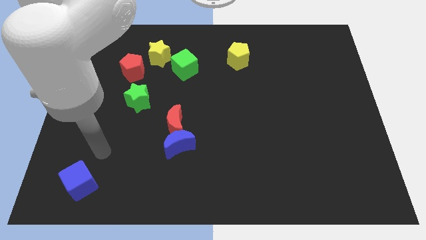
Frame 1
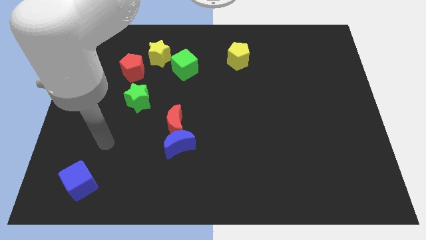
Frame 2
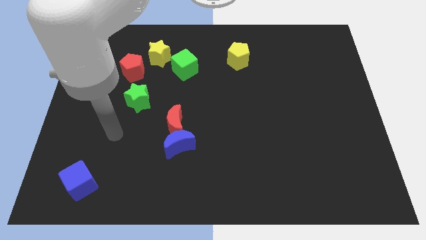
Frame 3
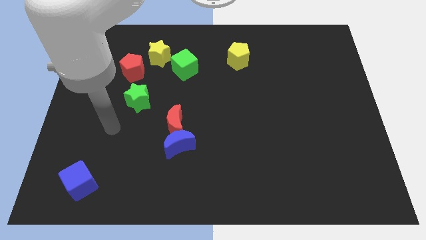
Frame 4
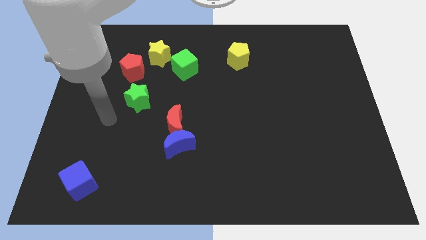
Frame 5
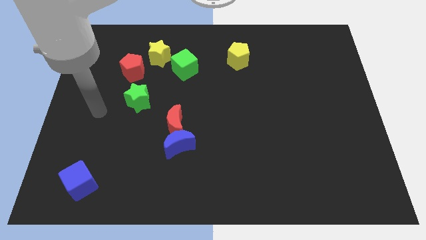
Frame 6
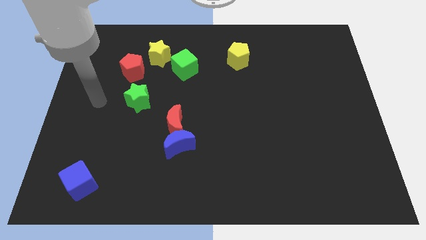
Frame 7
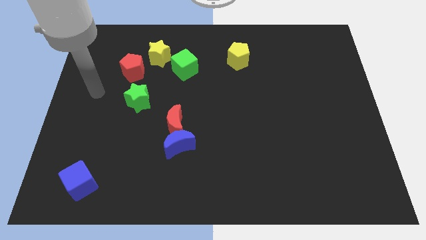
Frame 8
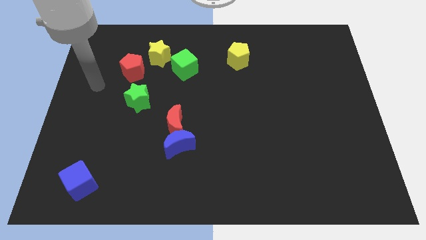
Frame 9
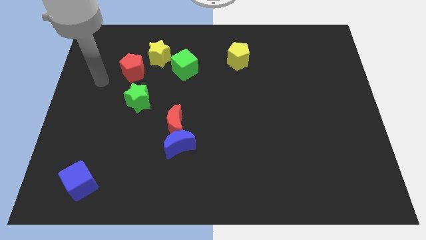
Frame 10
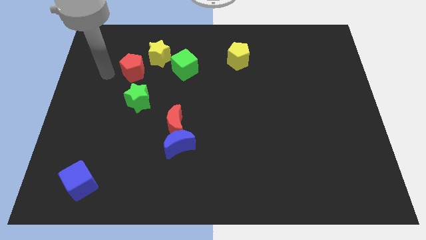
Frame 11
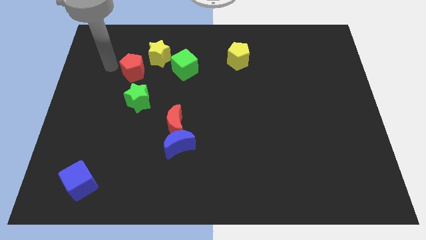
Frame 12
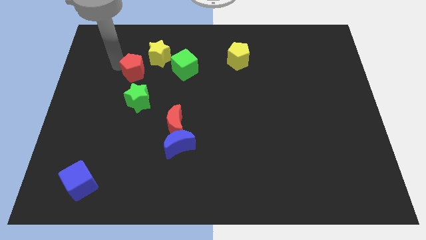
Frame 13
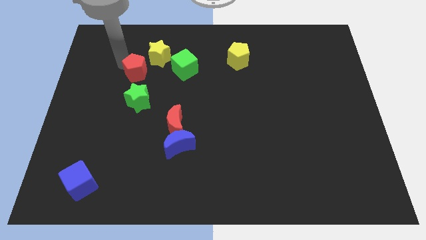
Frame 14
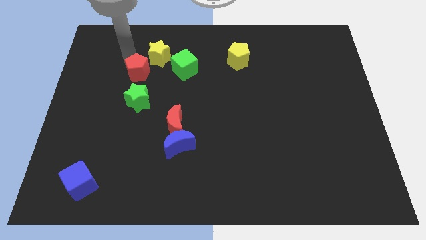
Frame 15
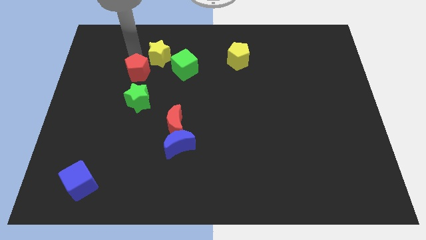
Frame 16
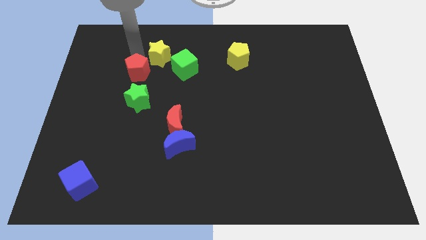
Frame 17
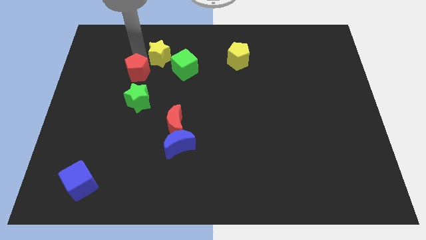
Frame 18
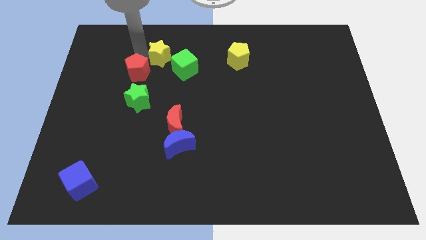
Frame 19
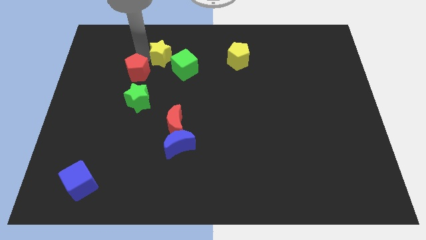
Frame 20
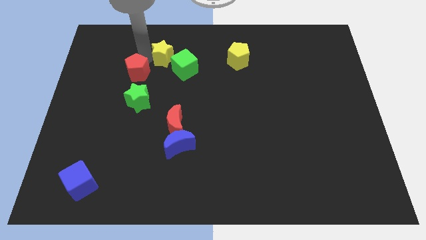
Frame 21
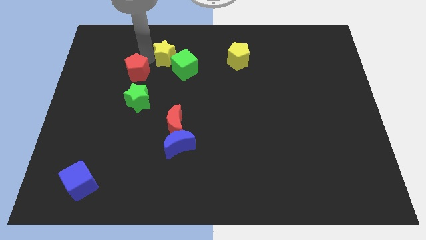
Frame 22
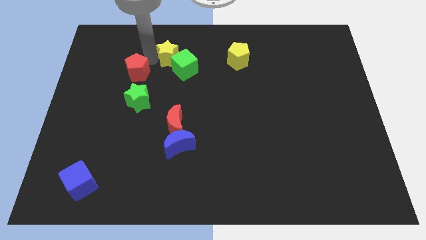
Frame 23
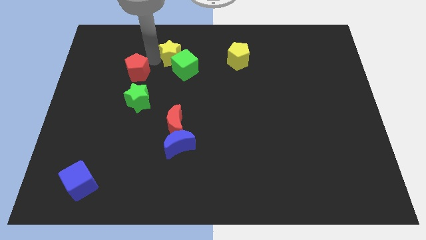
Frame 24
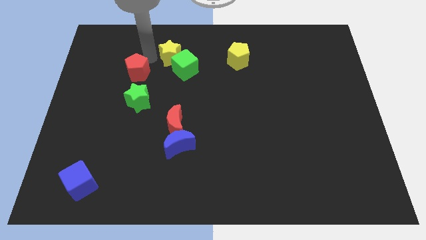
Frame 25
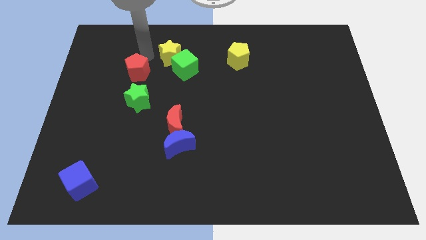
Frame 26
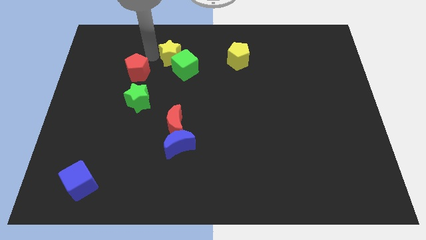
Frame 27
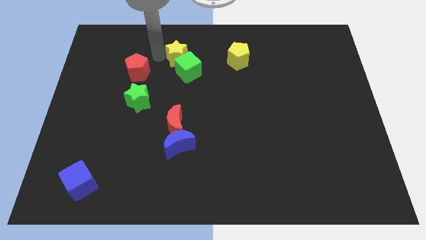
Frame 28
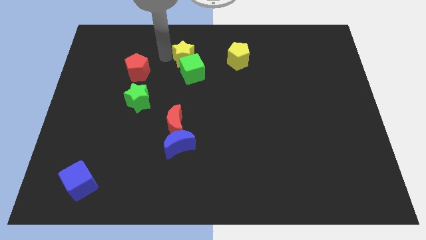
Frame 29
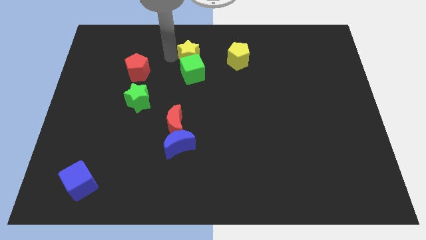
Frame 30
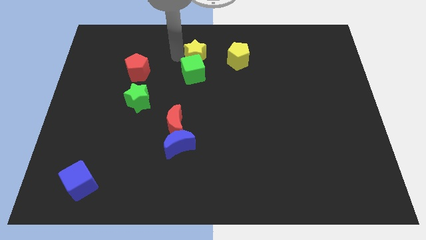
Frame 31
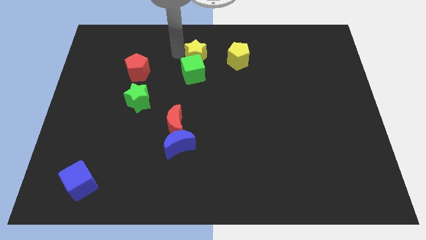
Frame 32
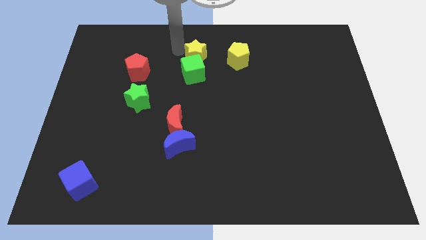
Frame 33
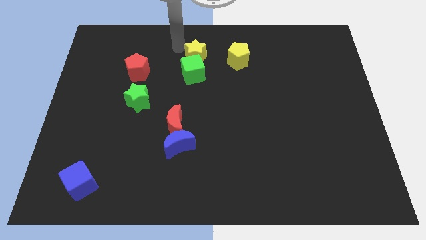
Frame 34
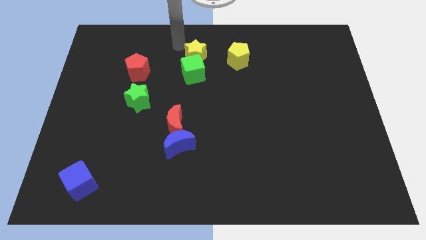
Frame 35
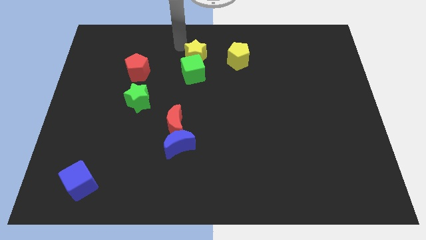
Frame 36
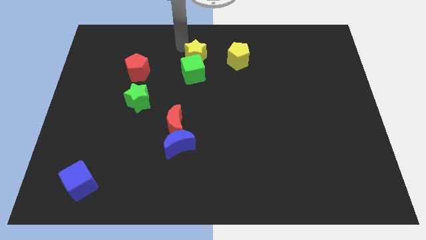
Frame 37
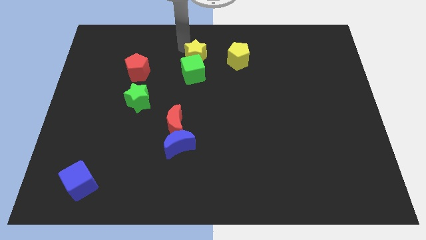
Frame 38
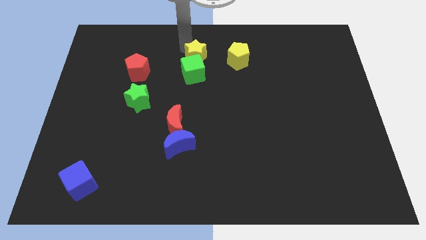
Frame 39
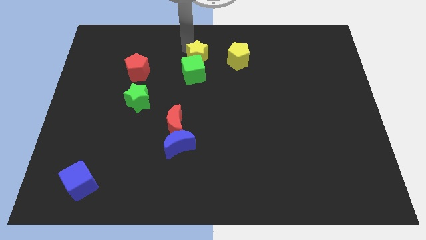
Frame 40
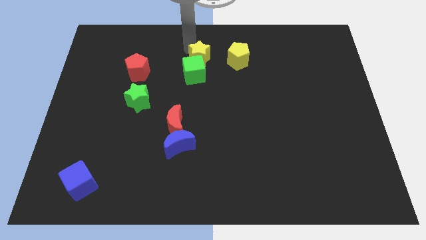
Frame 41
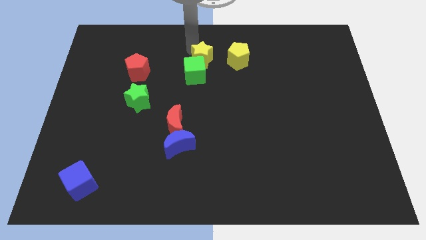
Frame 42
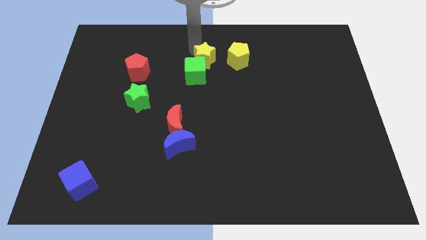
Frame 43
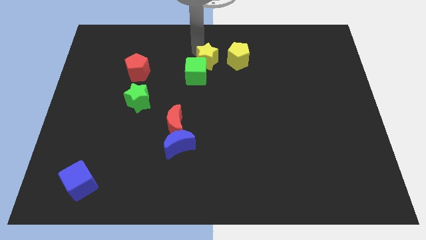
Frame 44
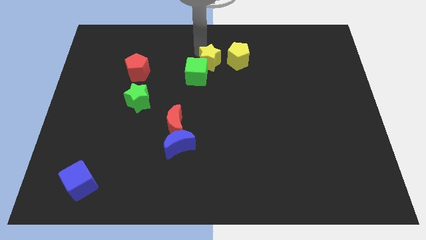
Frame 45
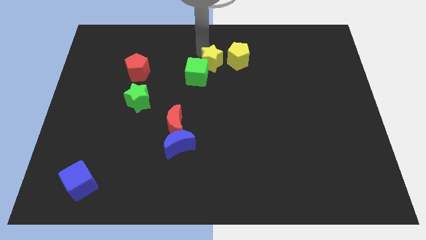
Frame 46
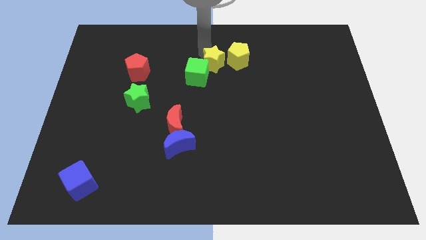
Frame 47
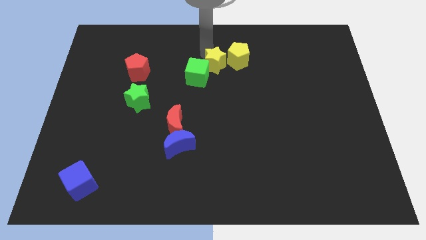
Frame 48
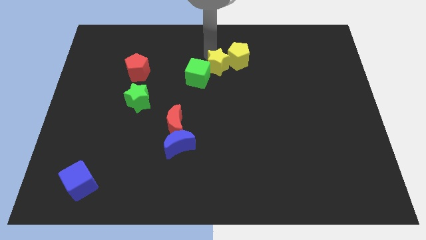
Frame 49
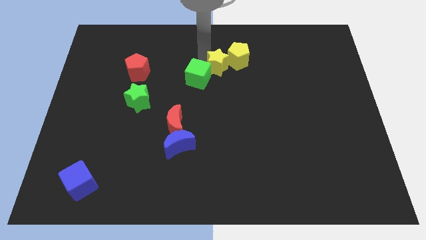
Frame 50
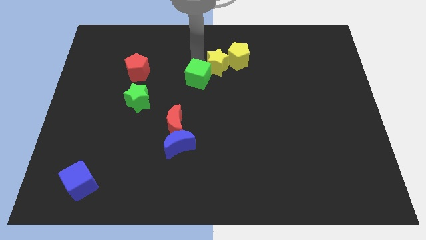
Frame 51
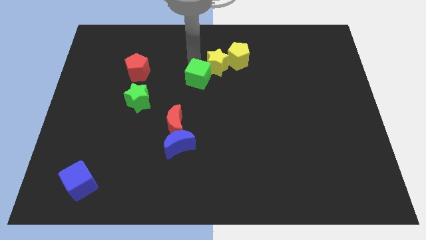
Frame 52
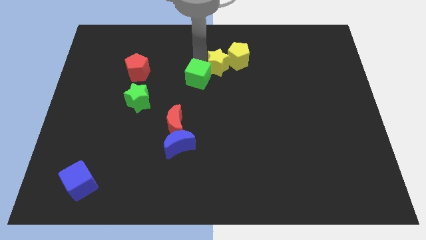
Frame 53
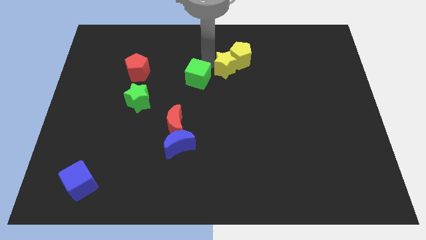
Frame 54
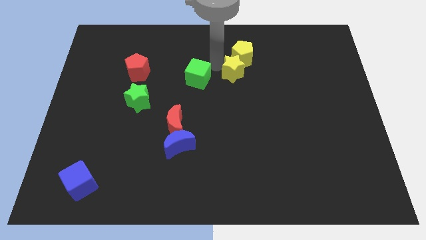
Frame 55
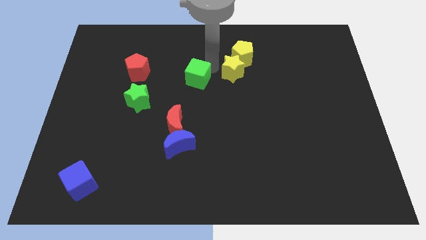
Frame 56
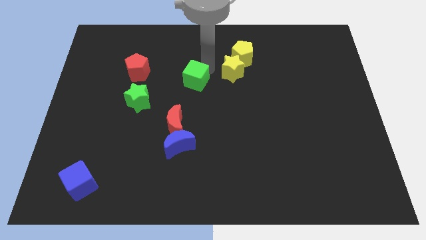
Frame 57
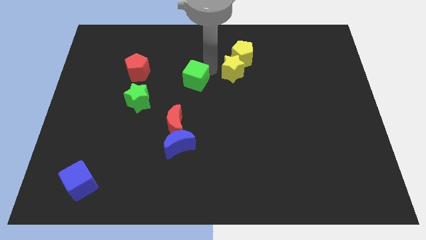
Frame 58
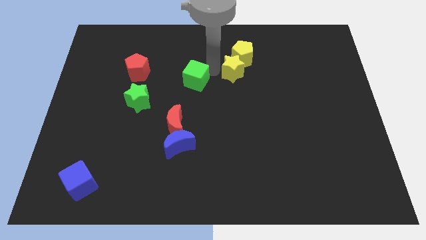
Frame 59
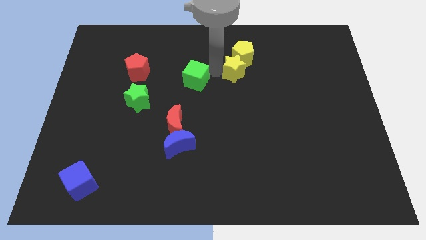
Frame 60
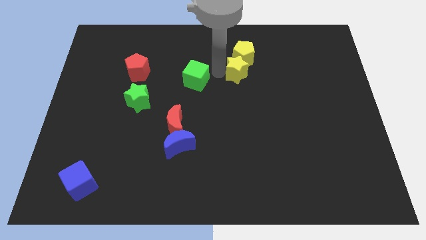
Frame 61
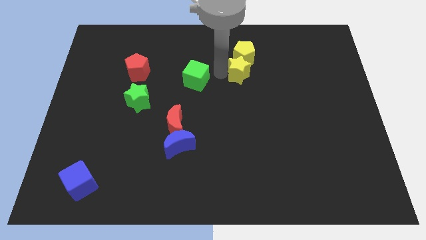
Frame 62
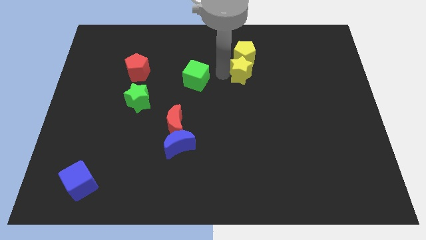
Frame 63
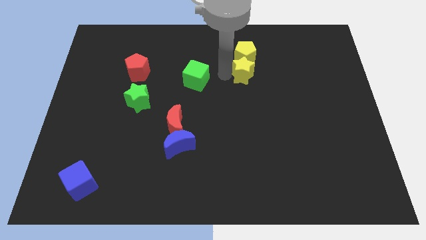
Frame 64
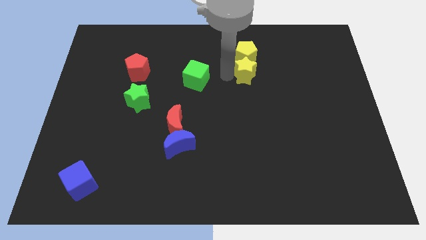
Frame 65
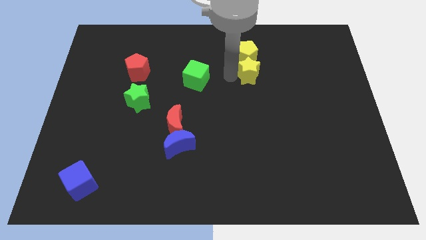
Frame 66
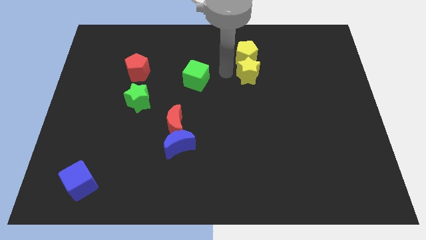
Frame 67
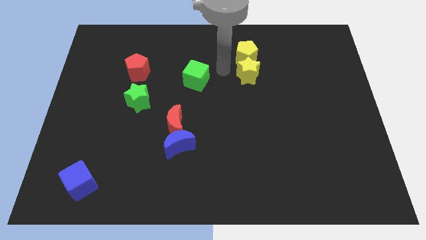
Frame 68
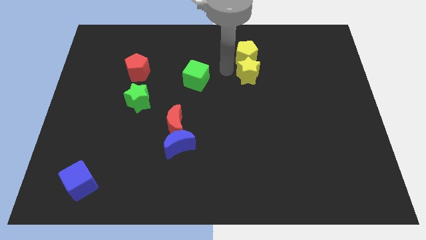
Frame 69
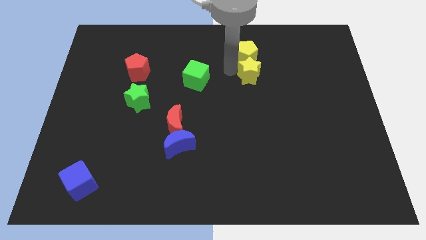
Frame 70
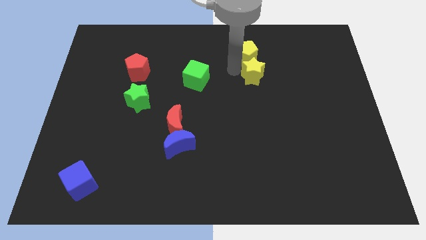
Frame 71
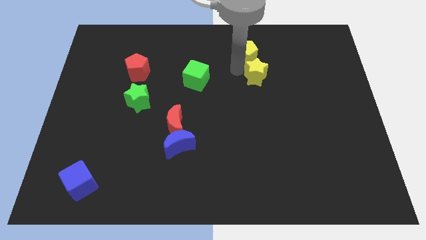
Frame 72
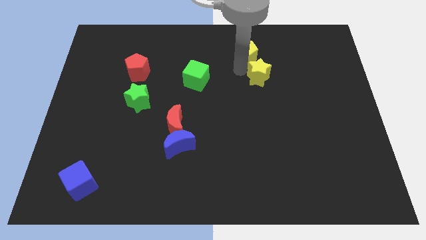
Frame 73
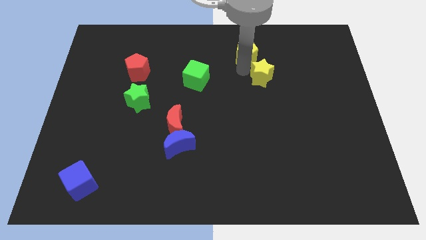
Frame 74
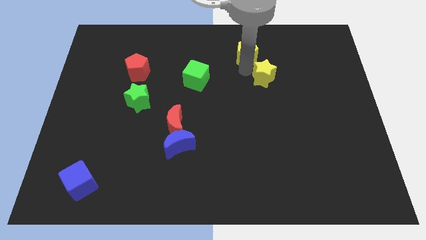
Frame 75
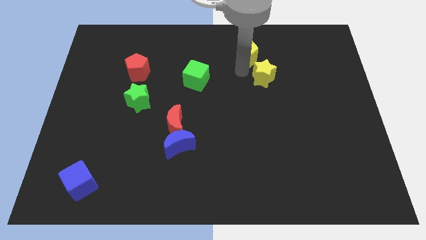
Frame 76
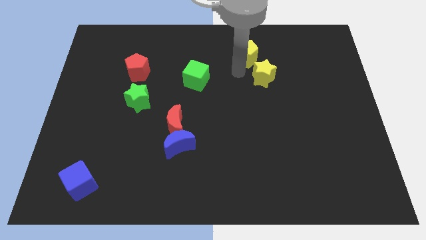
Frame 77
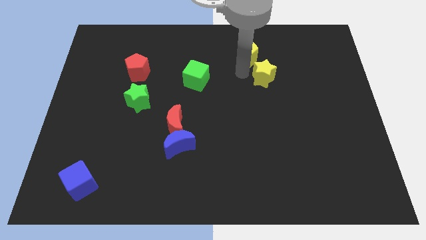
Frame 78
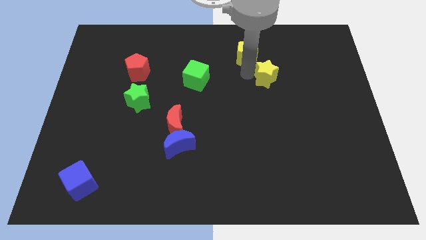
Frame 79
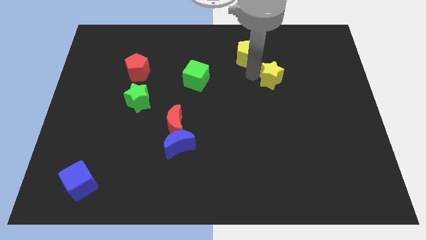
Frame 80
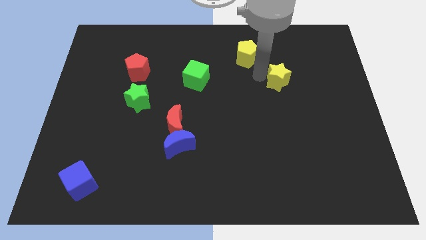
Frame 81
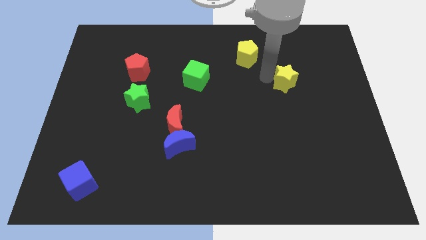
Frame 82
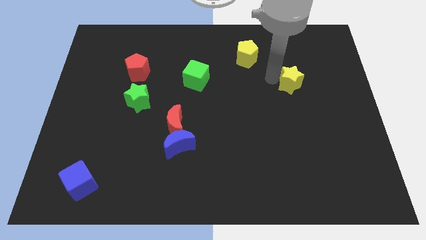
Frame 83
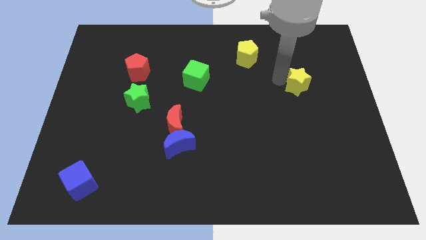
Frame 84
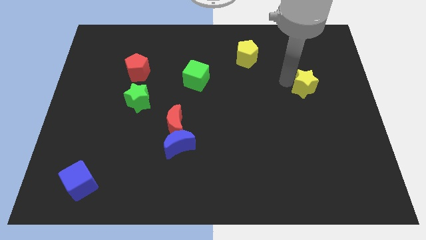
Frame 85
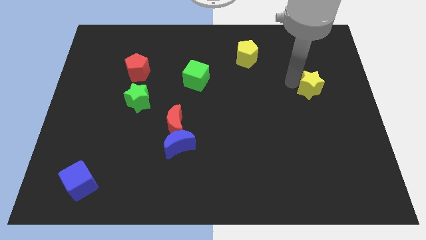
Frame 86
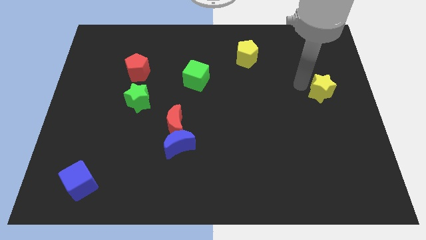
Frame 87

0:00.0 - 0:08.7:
put the yellow star to the right side
